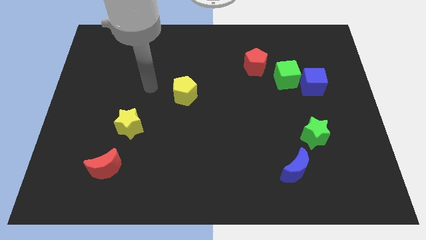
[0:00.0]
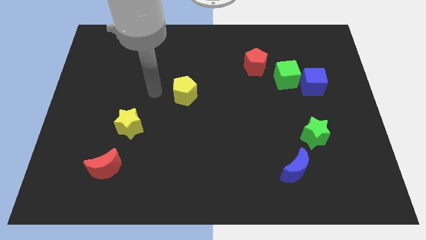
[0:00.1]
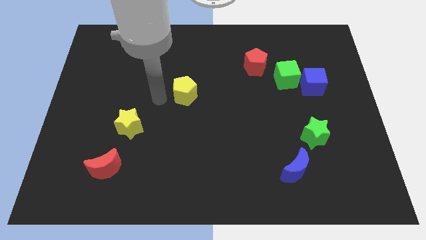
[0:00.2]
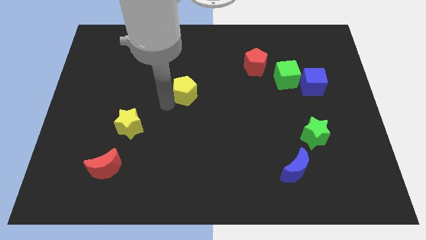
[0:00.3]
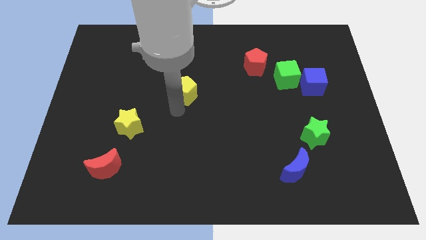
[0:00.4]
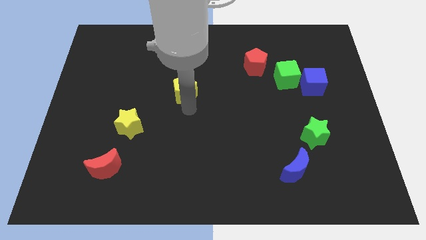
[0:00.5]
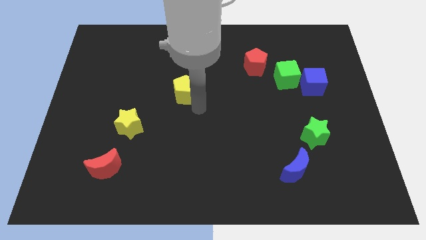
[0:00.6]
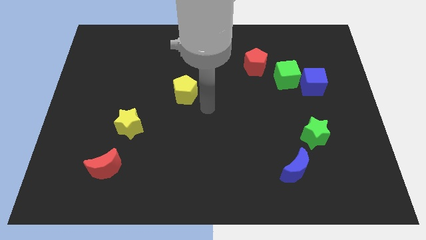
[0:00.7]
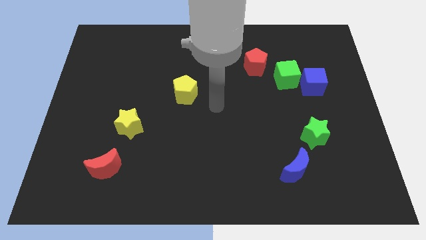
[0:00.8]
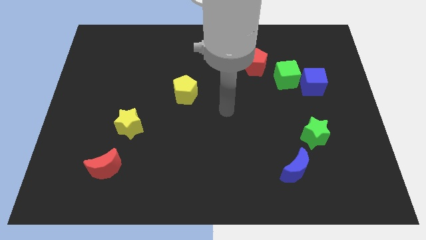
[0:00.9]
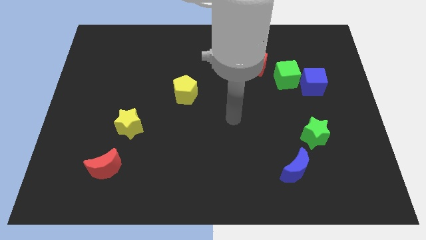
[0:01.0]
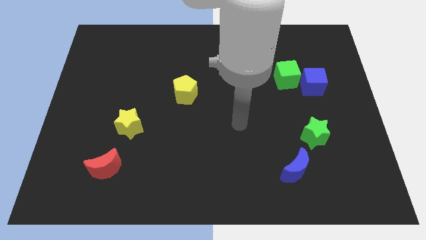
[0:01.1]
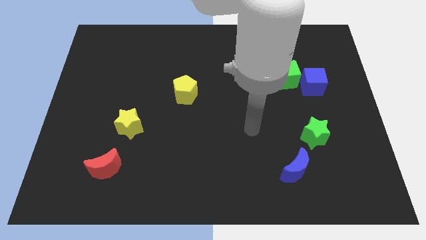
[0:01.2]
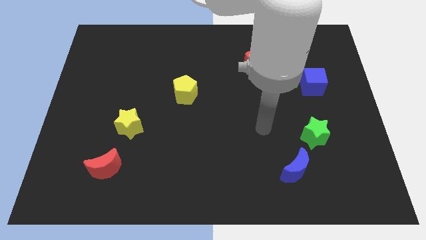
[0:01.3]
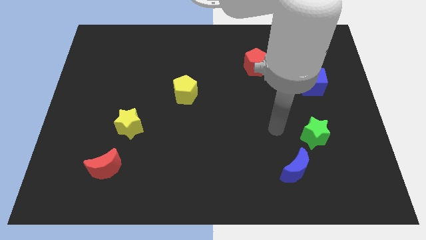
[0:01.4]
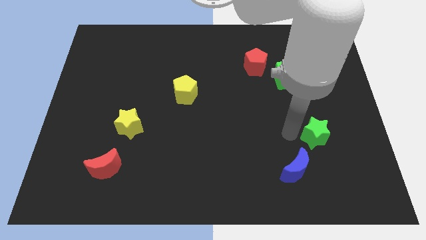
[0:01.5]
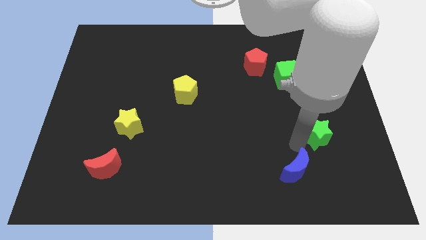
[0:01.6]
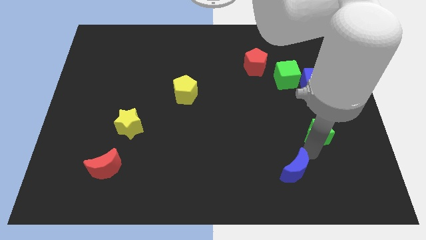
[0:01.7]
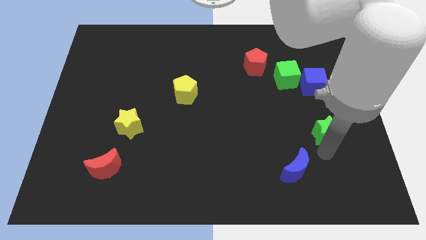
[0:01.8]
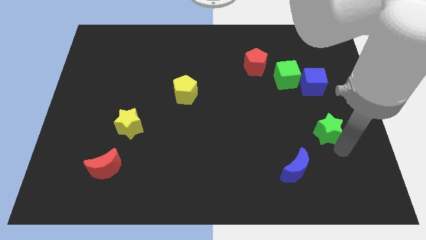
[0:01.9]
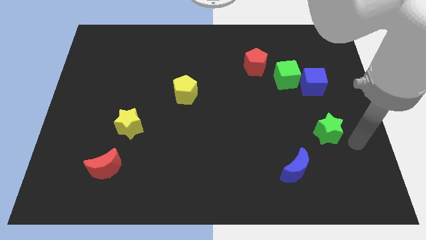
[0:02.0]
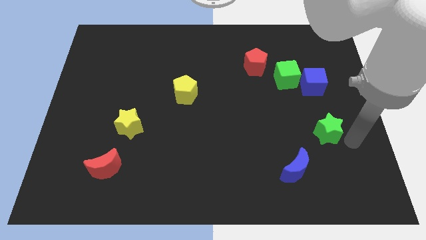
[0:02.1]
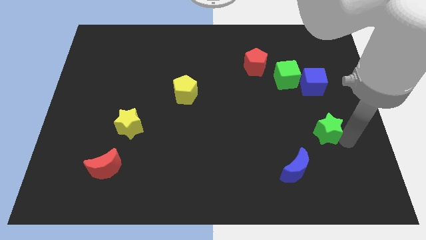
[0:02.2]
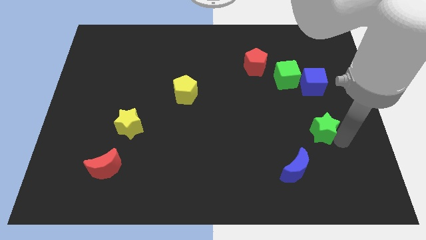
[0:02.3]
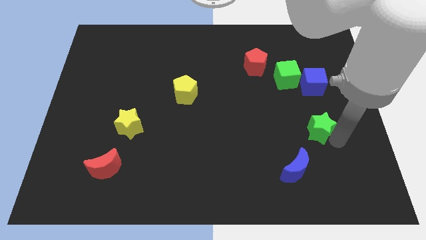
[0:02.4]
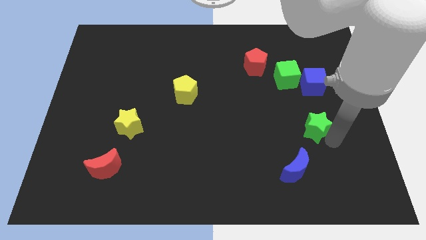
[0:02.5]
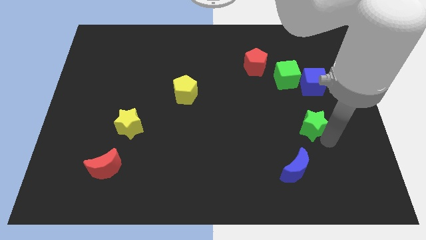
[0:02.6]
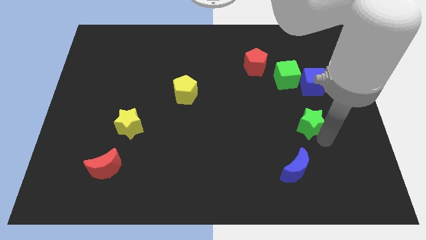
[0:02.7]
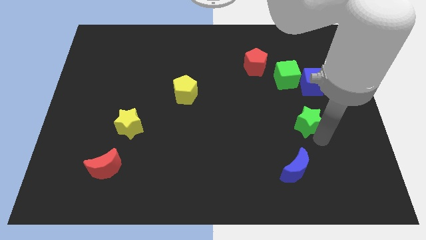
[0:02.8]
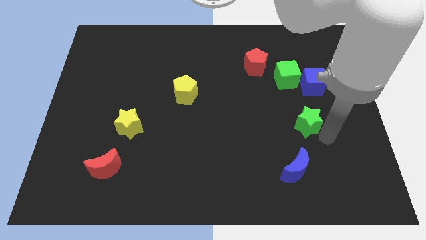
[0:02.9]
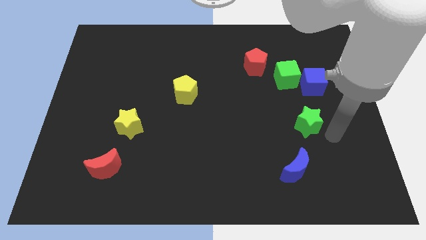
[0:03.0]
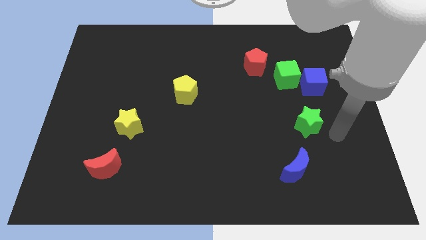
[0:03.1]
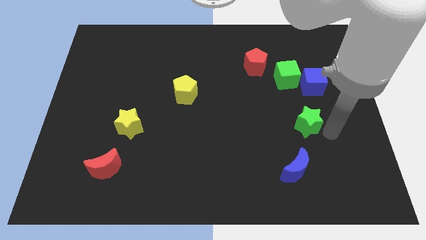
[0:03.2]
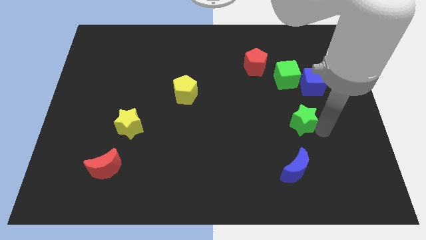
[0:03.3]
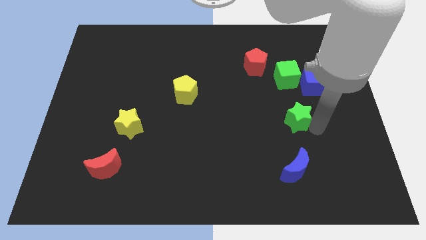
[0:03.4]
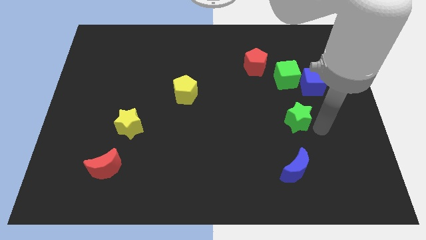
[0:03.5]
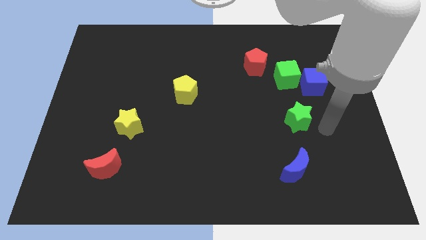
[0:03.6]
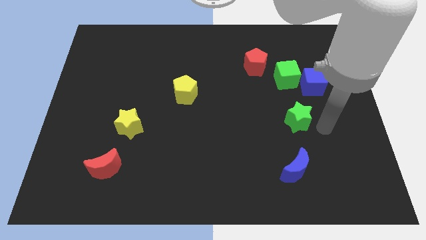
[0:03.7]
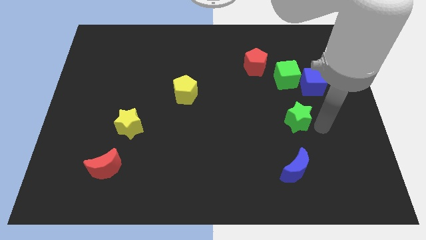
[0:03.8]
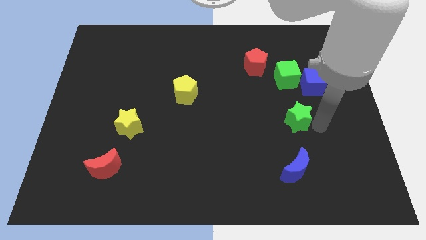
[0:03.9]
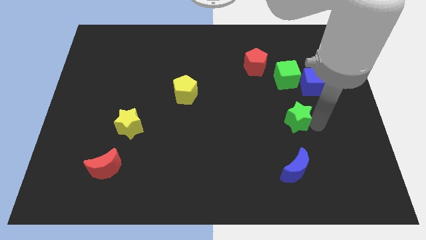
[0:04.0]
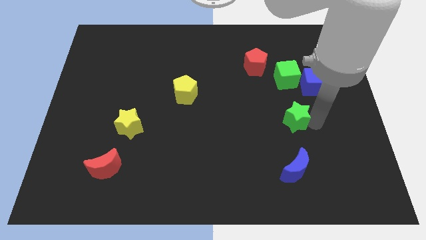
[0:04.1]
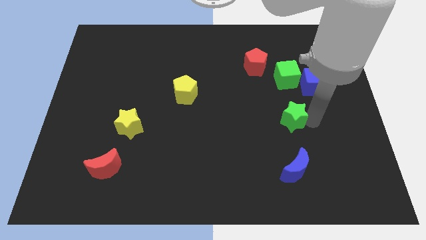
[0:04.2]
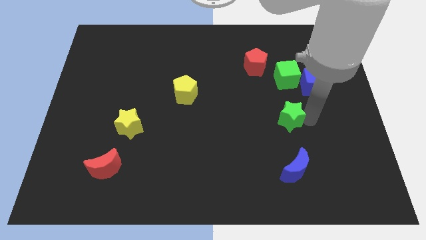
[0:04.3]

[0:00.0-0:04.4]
slide the green star upwards and left diagonally a bit

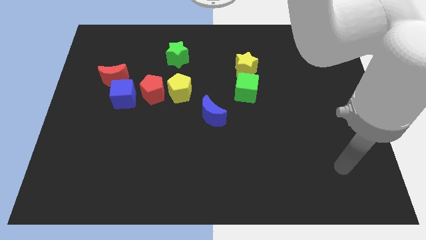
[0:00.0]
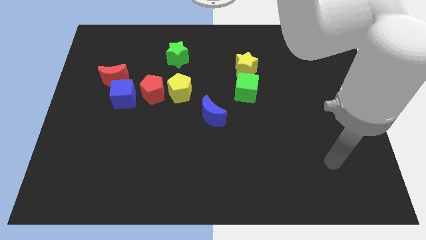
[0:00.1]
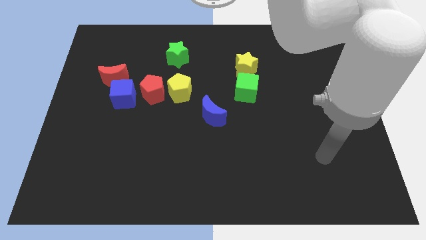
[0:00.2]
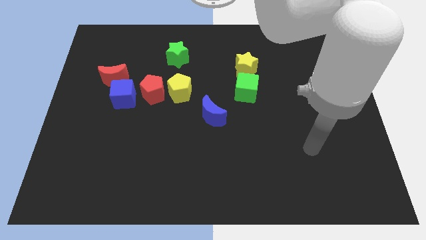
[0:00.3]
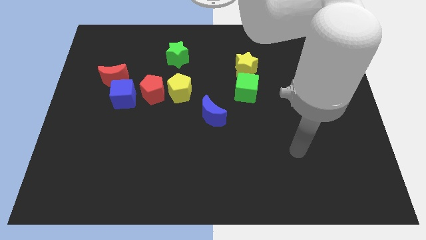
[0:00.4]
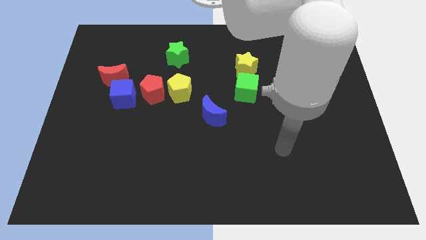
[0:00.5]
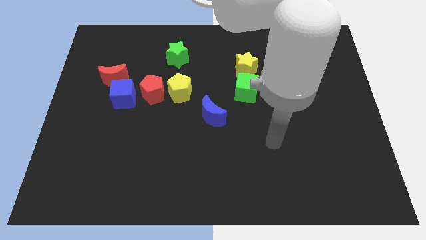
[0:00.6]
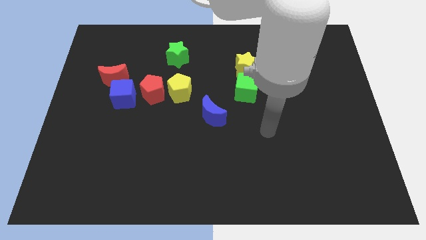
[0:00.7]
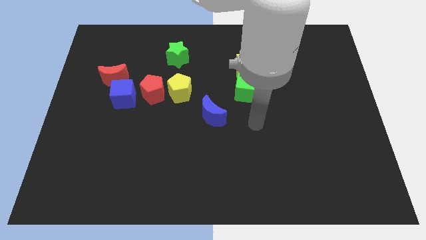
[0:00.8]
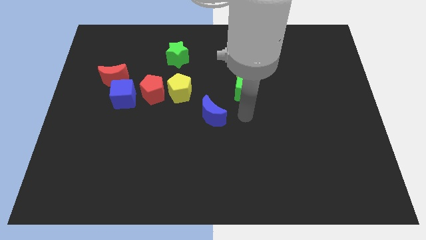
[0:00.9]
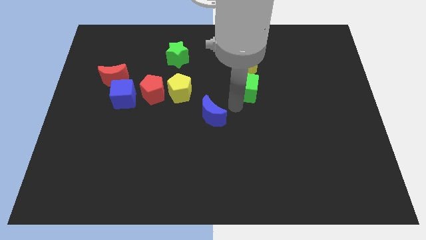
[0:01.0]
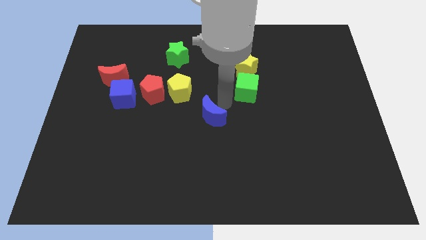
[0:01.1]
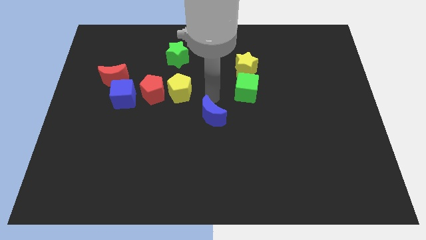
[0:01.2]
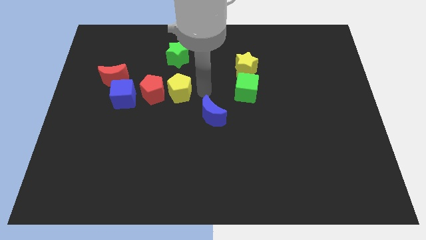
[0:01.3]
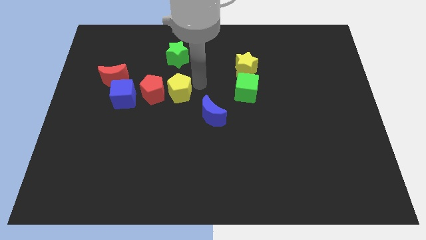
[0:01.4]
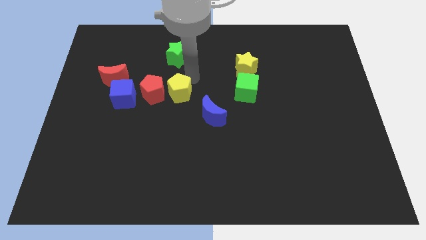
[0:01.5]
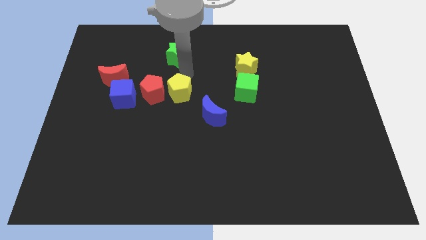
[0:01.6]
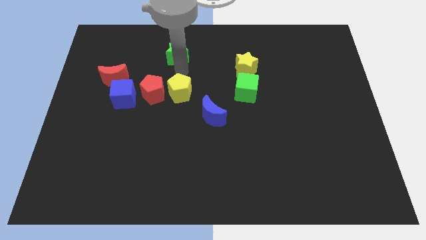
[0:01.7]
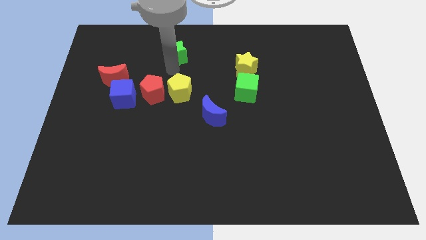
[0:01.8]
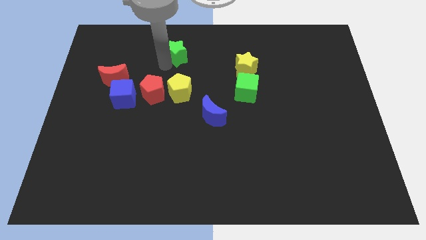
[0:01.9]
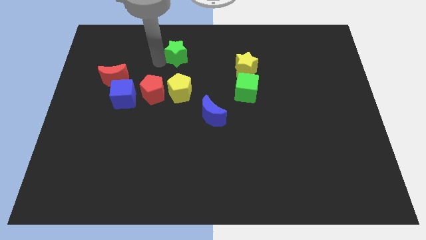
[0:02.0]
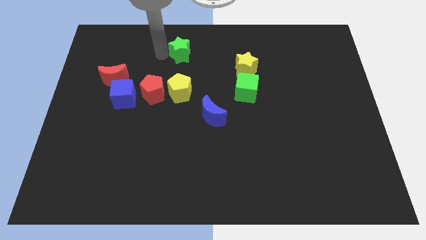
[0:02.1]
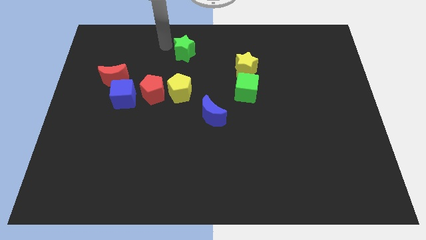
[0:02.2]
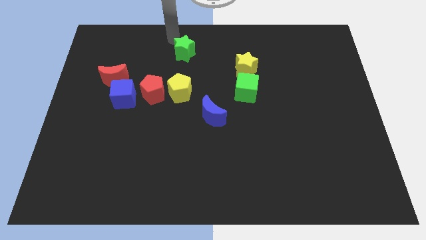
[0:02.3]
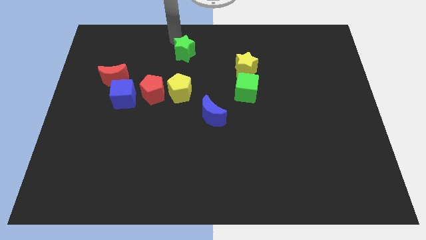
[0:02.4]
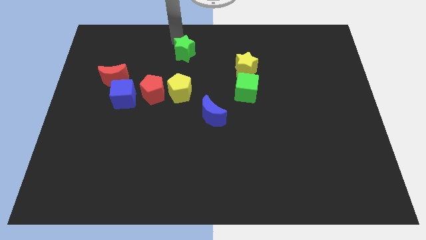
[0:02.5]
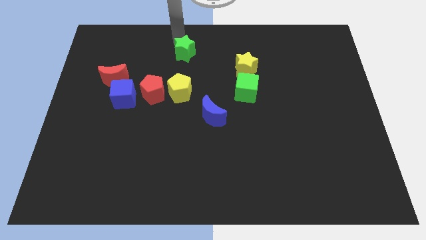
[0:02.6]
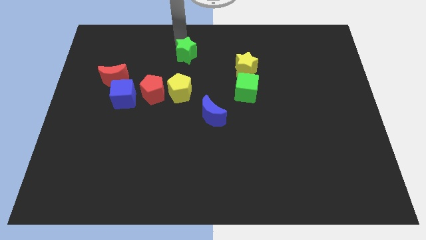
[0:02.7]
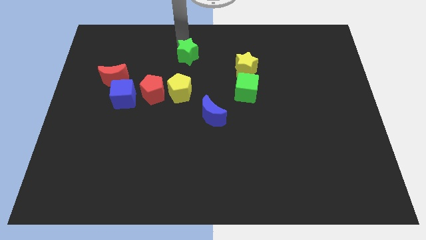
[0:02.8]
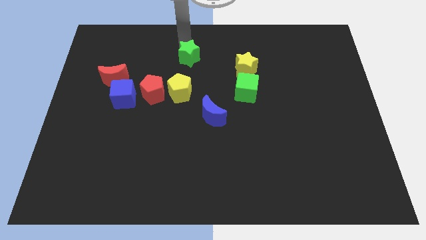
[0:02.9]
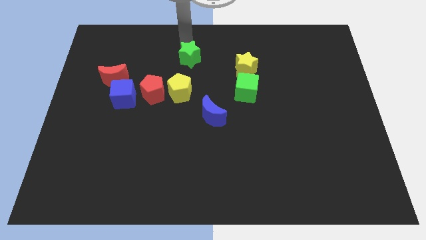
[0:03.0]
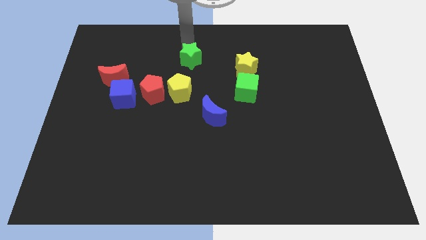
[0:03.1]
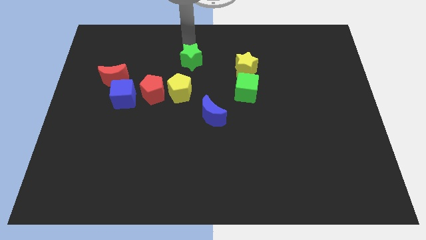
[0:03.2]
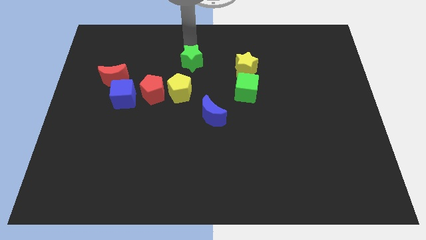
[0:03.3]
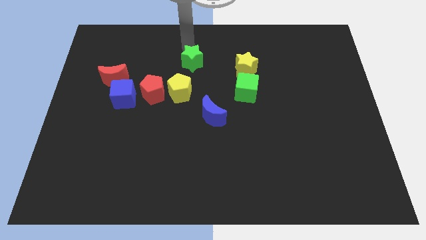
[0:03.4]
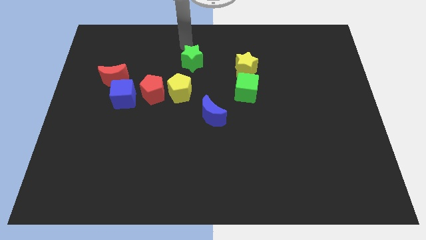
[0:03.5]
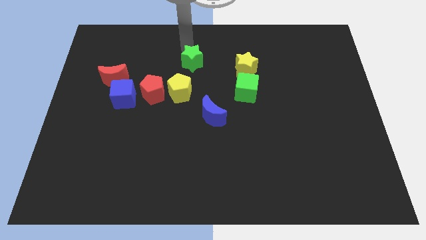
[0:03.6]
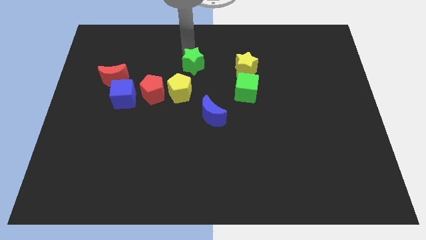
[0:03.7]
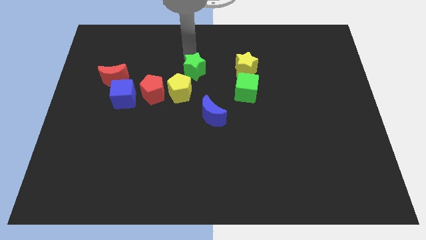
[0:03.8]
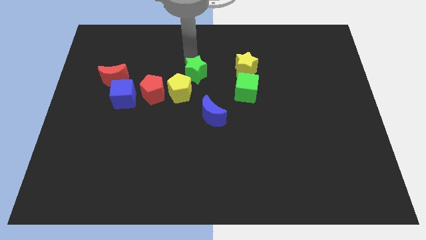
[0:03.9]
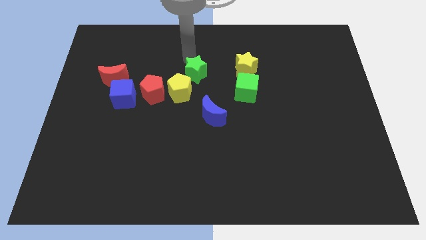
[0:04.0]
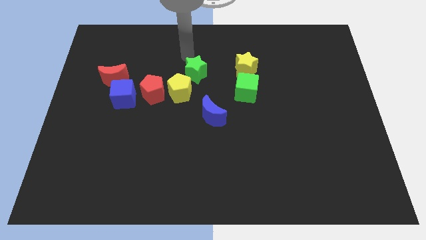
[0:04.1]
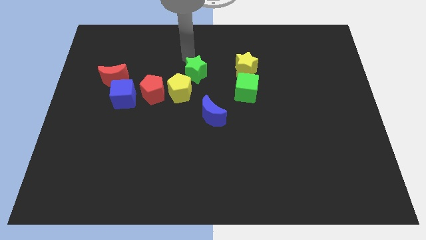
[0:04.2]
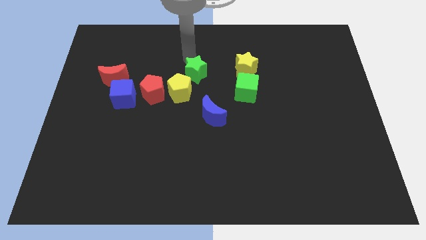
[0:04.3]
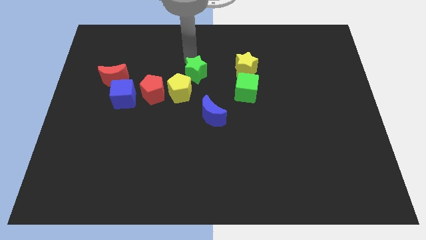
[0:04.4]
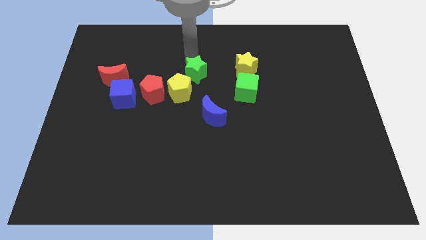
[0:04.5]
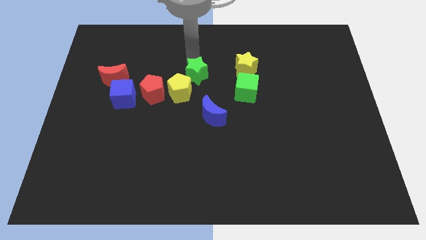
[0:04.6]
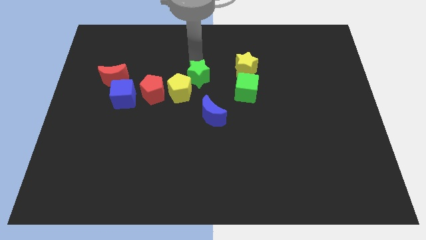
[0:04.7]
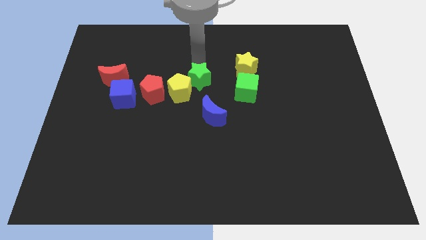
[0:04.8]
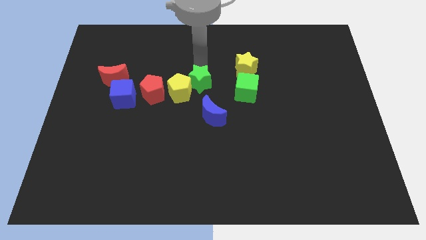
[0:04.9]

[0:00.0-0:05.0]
push the green star a little bit downwards
